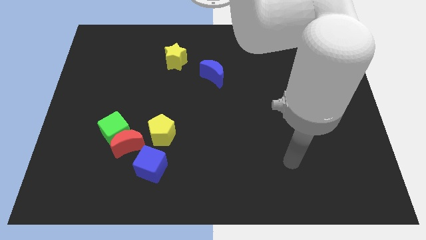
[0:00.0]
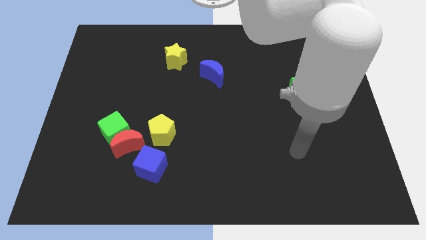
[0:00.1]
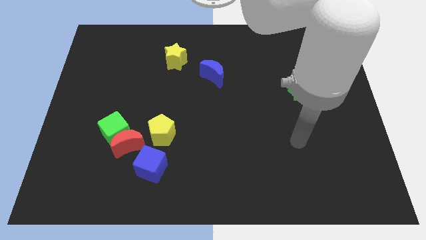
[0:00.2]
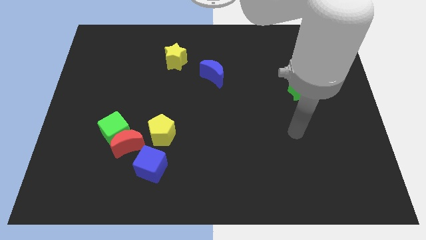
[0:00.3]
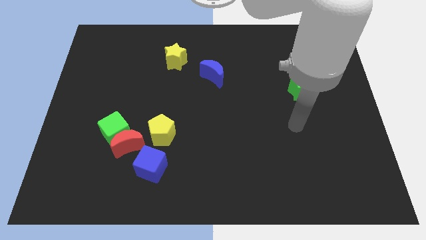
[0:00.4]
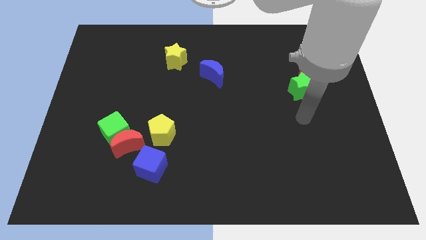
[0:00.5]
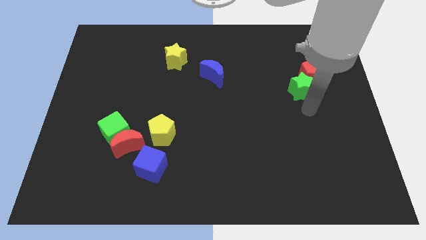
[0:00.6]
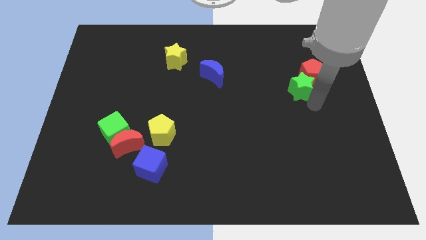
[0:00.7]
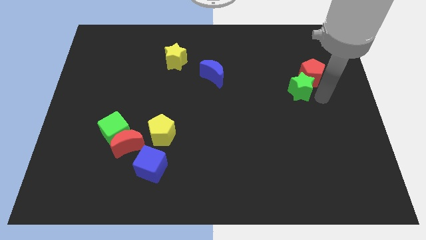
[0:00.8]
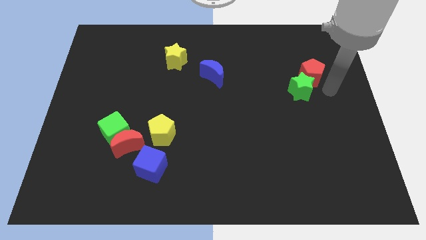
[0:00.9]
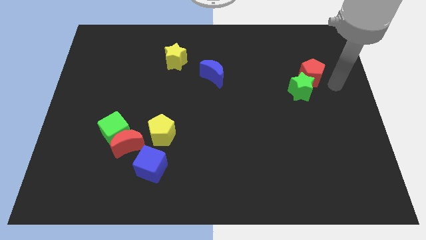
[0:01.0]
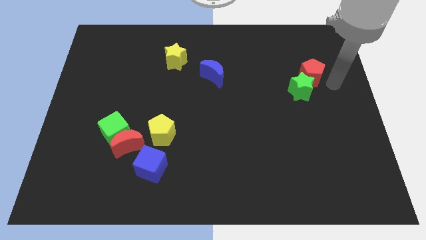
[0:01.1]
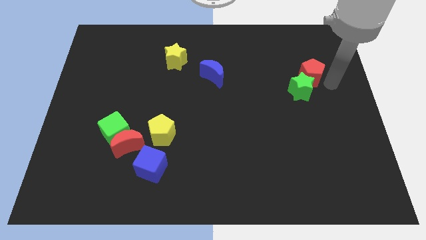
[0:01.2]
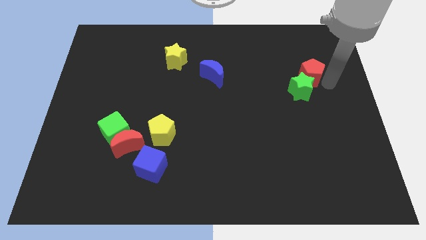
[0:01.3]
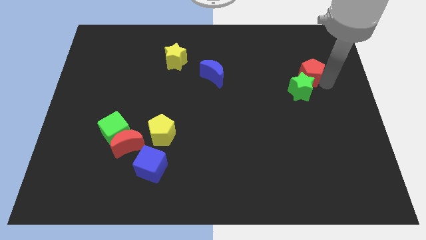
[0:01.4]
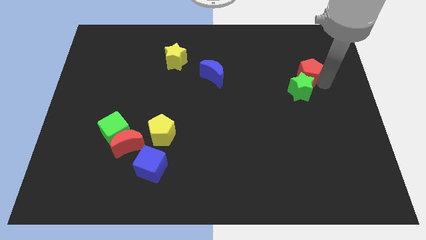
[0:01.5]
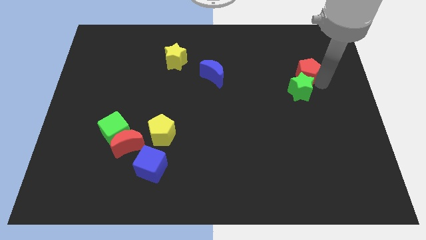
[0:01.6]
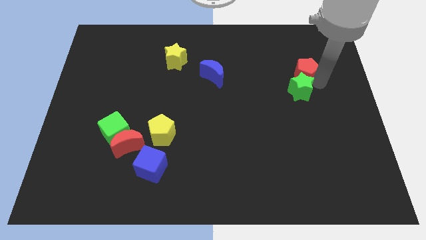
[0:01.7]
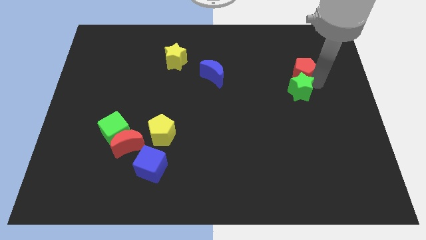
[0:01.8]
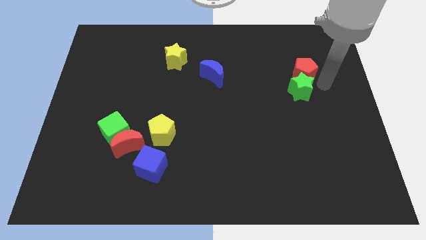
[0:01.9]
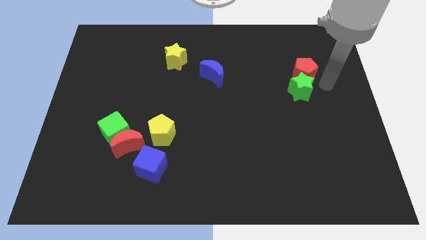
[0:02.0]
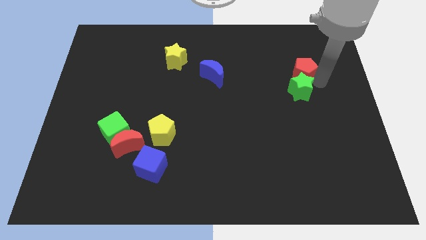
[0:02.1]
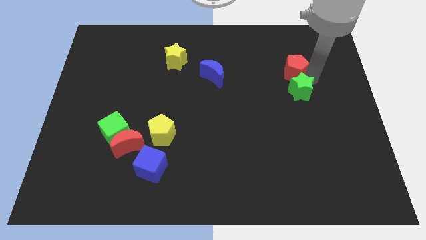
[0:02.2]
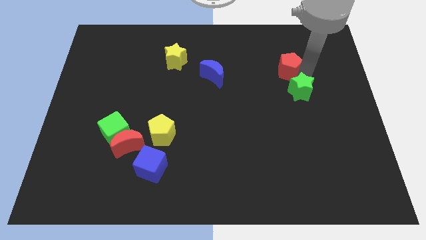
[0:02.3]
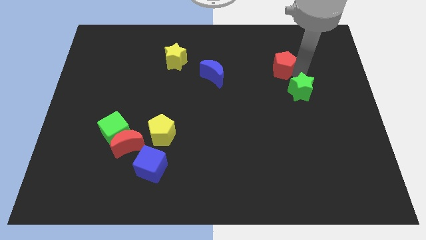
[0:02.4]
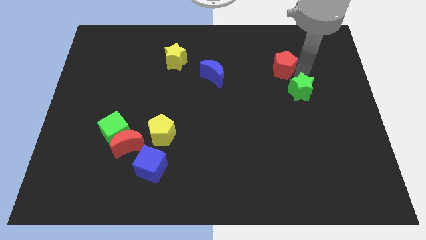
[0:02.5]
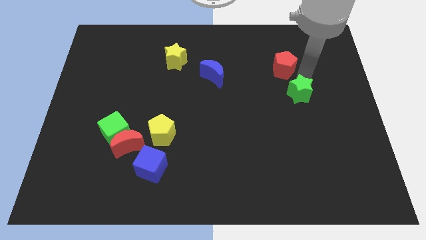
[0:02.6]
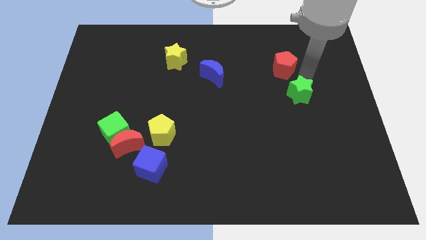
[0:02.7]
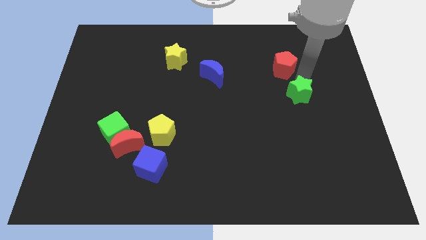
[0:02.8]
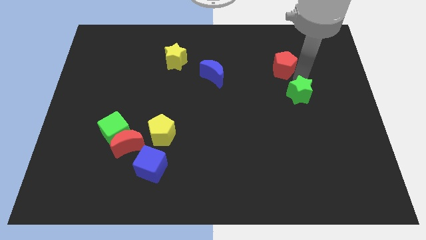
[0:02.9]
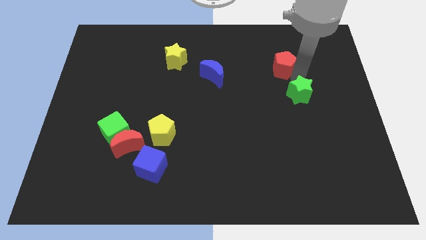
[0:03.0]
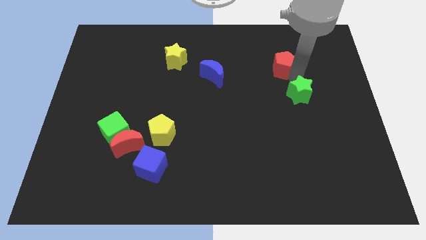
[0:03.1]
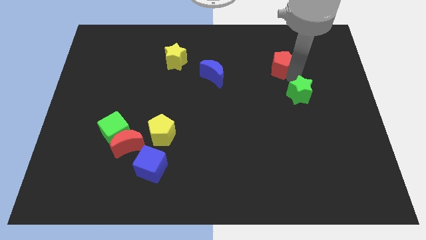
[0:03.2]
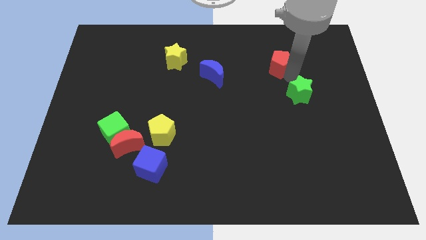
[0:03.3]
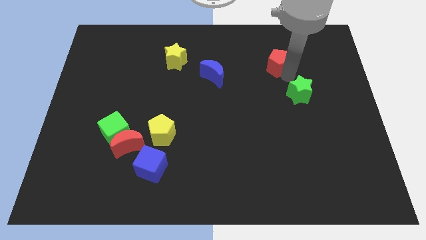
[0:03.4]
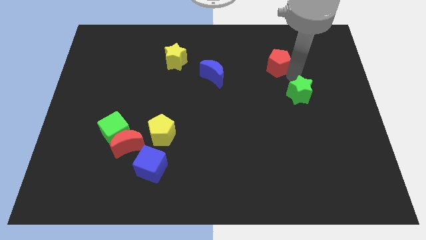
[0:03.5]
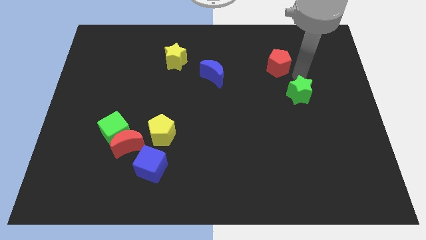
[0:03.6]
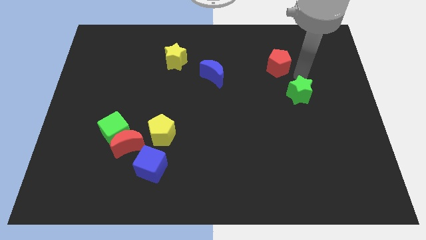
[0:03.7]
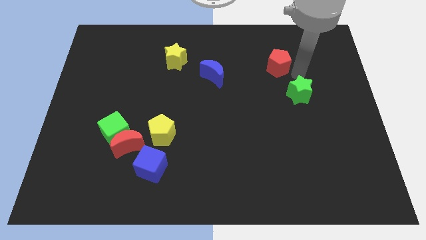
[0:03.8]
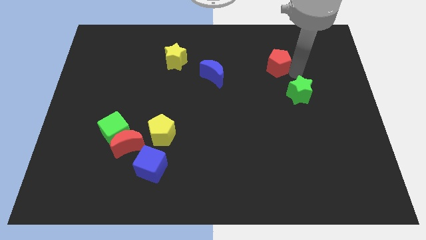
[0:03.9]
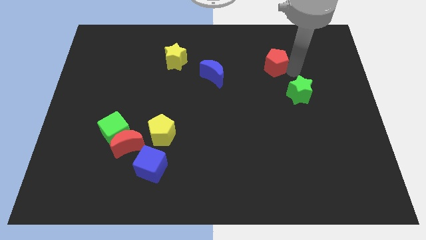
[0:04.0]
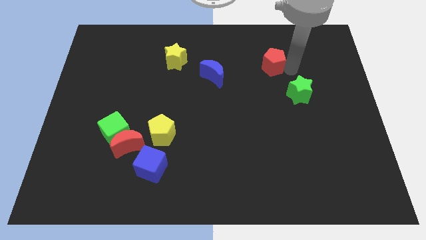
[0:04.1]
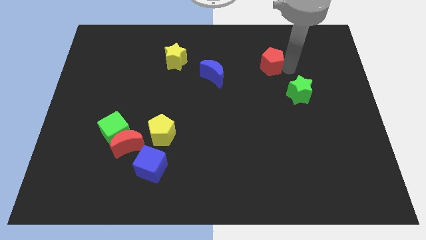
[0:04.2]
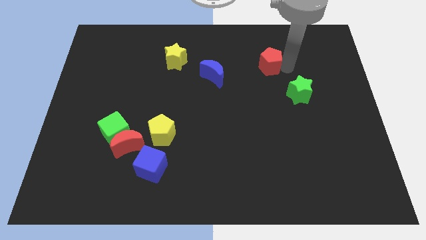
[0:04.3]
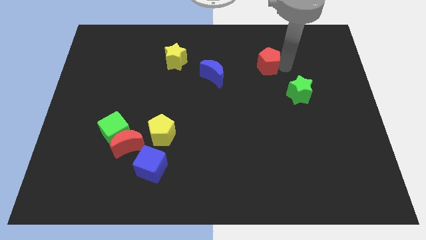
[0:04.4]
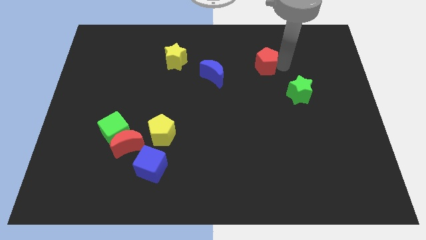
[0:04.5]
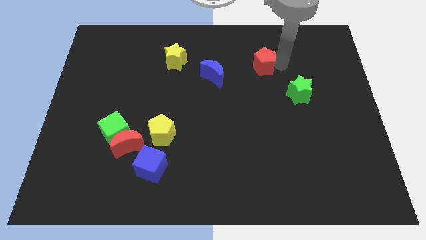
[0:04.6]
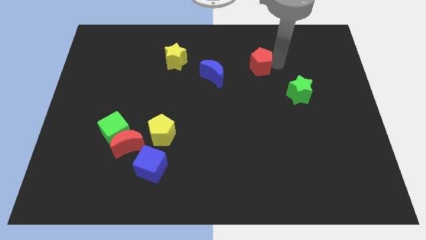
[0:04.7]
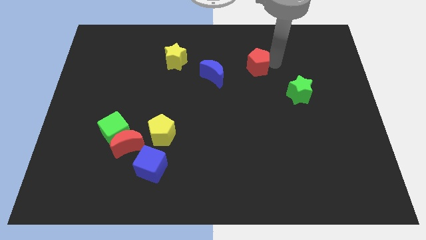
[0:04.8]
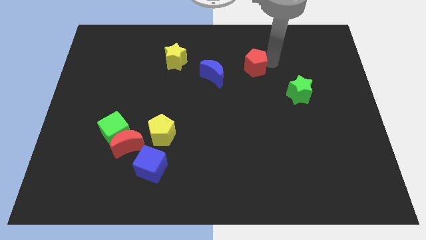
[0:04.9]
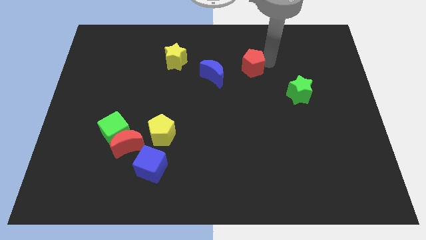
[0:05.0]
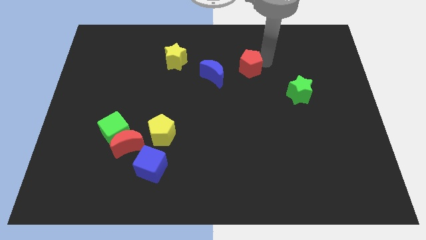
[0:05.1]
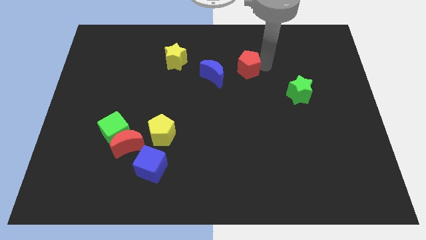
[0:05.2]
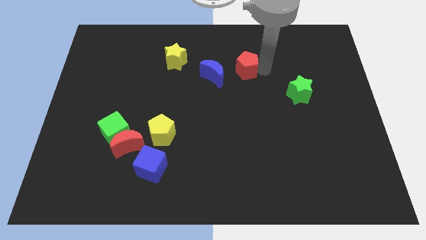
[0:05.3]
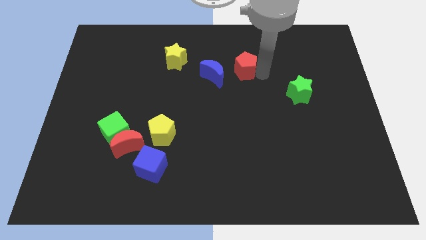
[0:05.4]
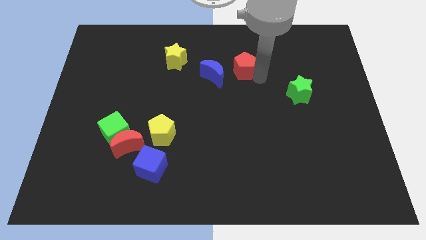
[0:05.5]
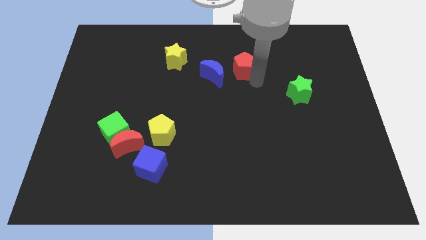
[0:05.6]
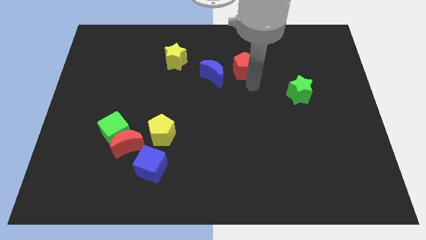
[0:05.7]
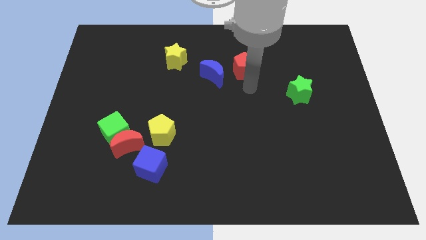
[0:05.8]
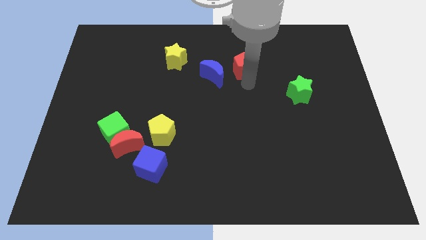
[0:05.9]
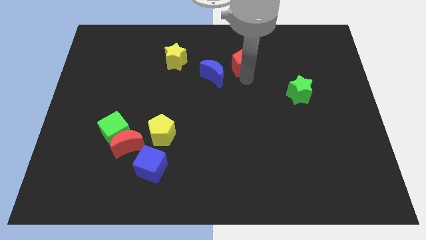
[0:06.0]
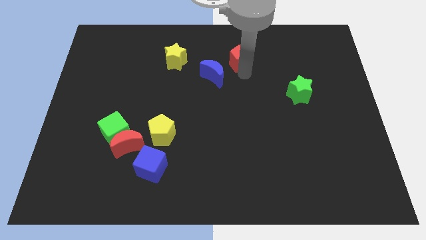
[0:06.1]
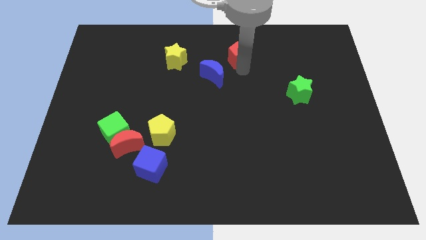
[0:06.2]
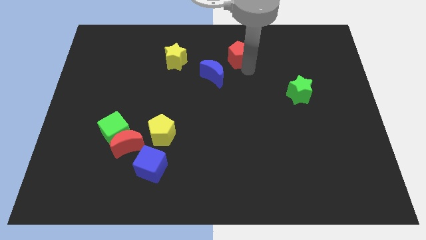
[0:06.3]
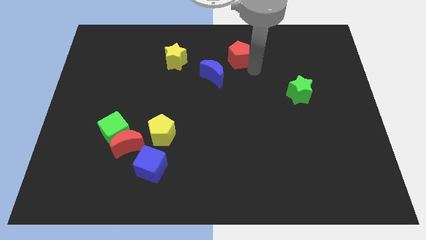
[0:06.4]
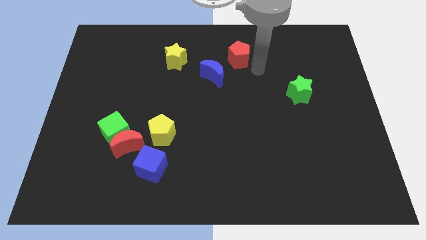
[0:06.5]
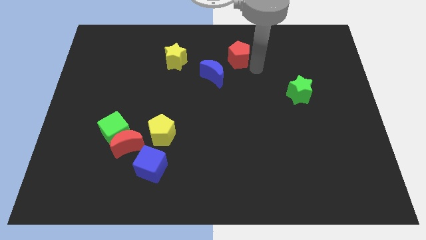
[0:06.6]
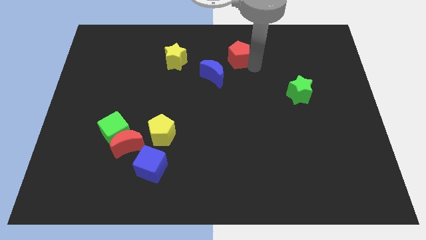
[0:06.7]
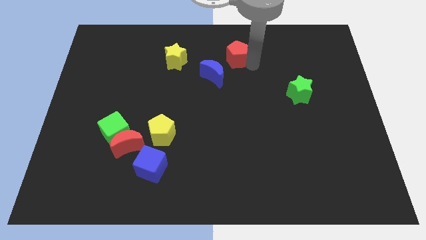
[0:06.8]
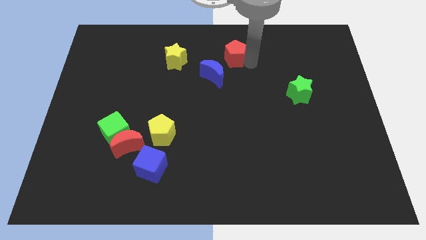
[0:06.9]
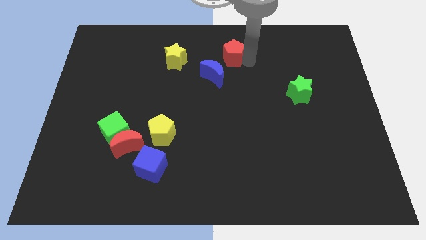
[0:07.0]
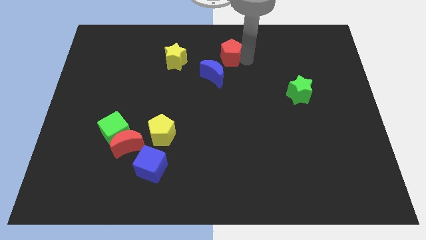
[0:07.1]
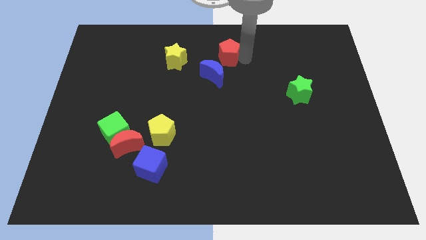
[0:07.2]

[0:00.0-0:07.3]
slide the red pentagon to the top
